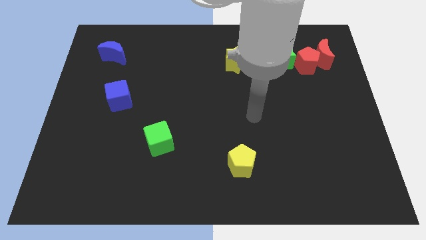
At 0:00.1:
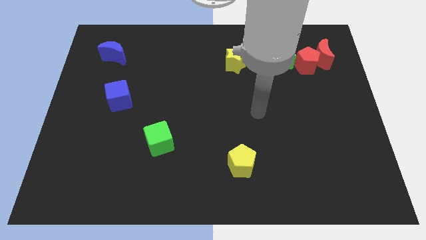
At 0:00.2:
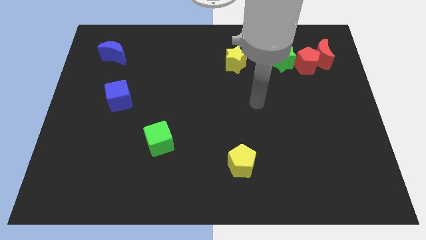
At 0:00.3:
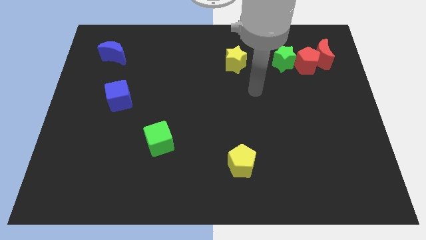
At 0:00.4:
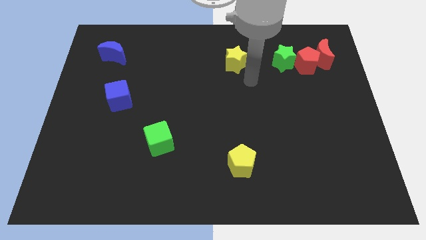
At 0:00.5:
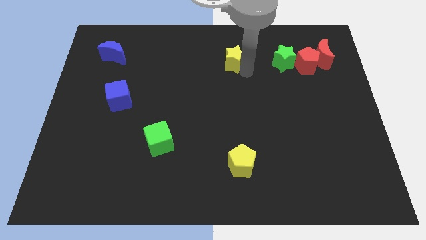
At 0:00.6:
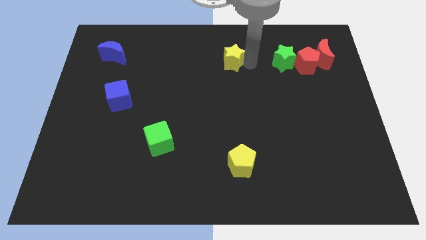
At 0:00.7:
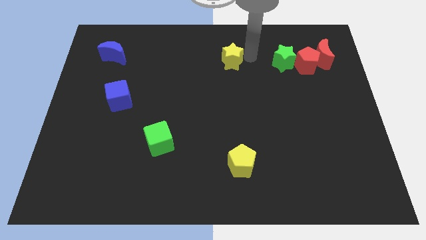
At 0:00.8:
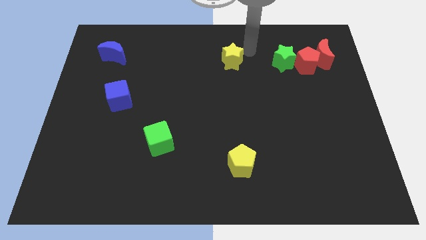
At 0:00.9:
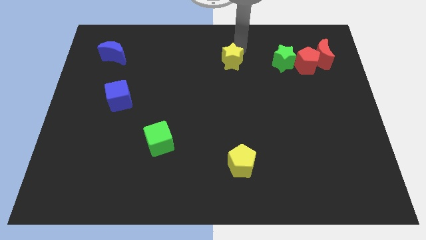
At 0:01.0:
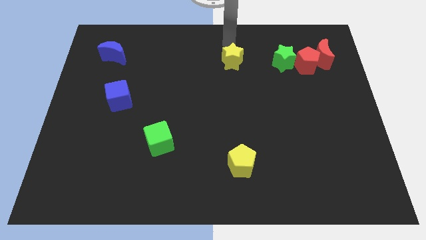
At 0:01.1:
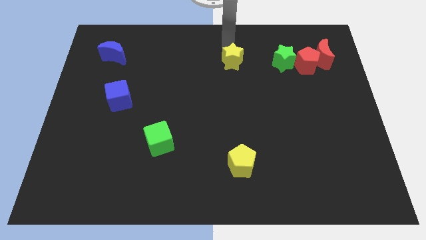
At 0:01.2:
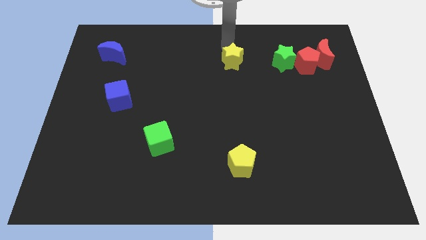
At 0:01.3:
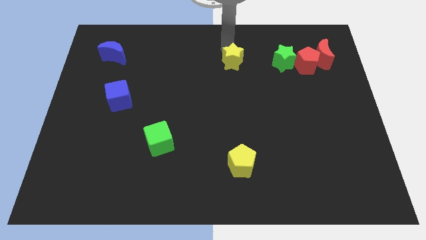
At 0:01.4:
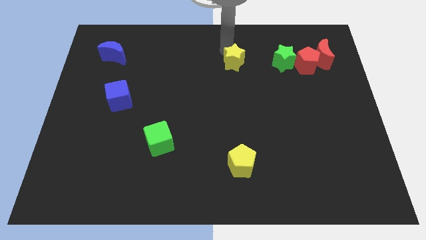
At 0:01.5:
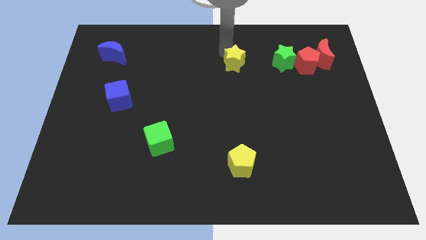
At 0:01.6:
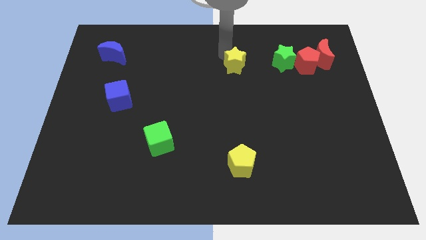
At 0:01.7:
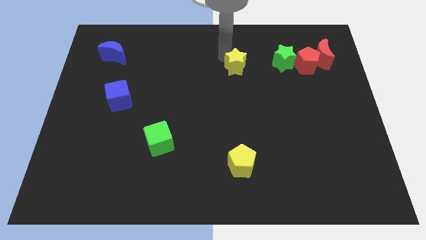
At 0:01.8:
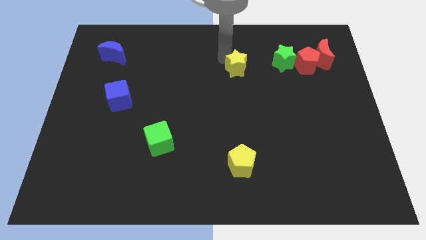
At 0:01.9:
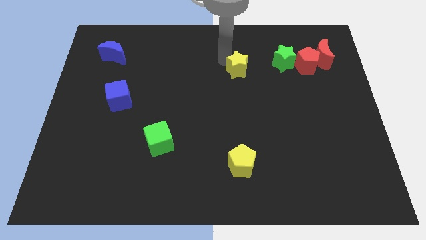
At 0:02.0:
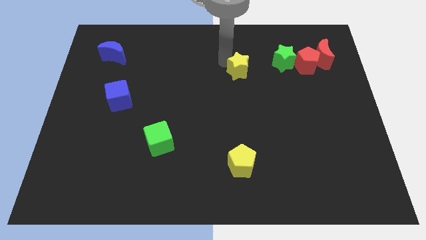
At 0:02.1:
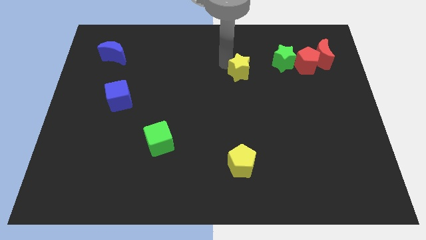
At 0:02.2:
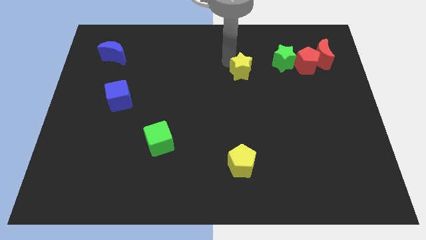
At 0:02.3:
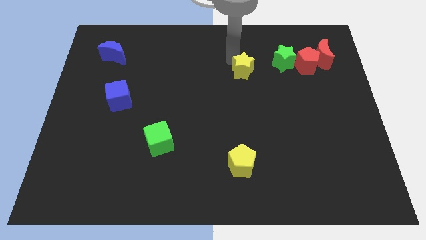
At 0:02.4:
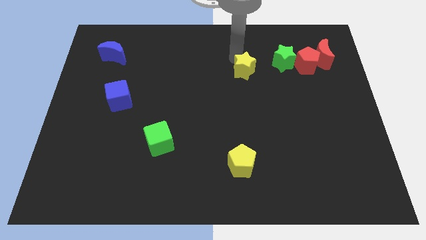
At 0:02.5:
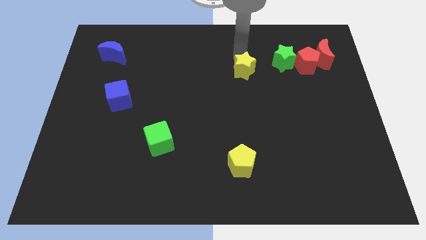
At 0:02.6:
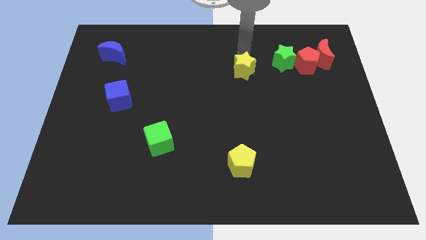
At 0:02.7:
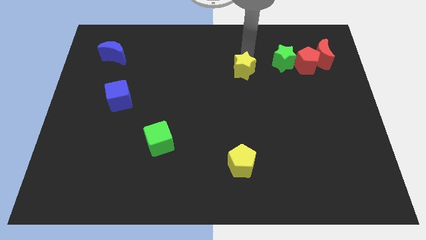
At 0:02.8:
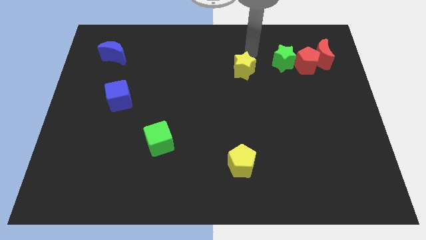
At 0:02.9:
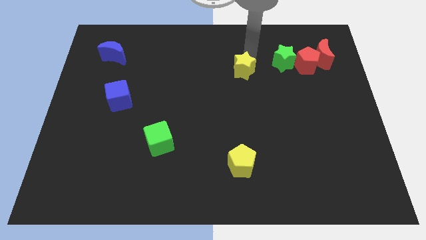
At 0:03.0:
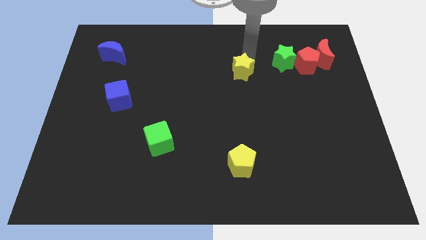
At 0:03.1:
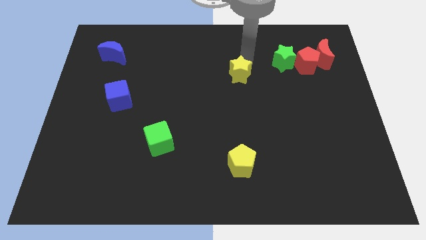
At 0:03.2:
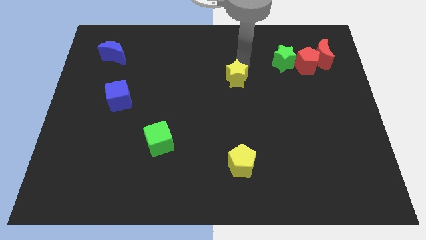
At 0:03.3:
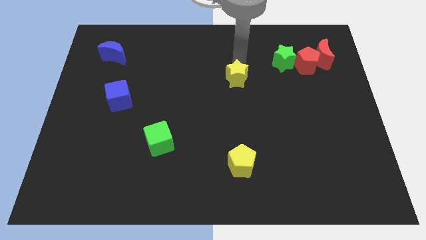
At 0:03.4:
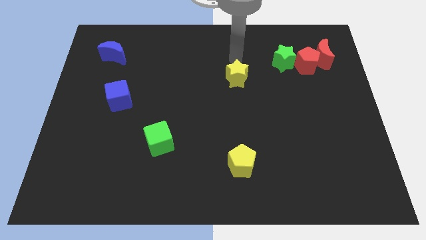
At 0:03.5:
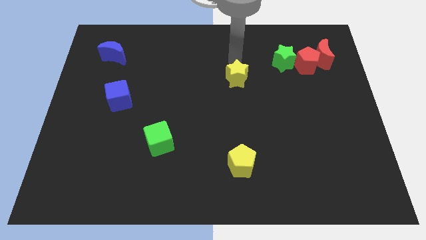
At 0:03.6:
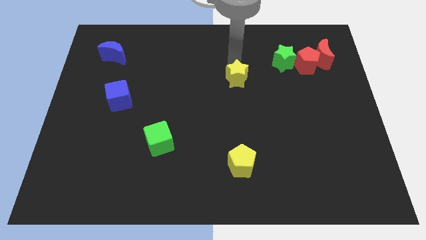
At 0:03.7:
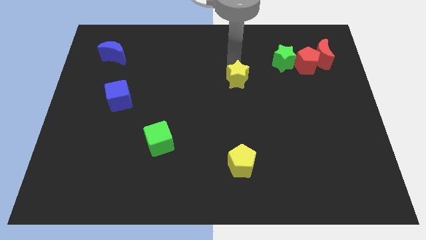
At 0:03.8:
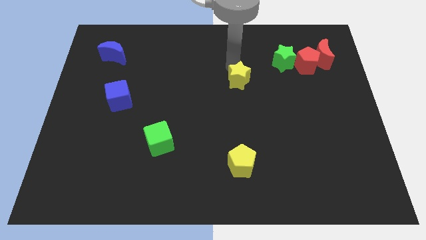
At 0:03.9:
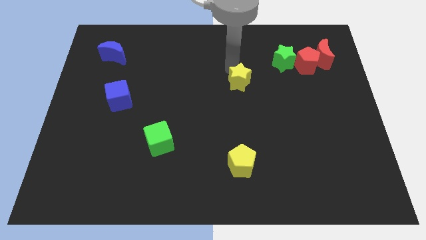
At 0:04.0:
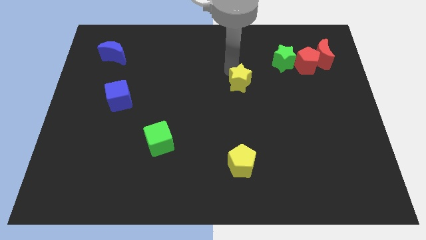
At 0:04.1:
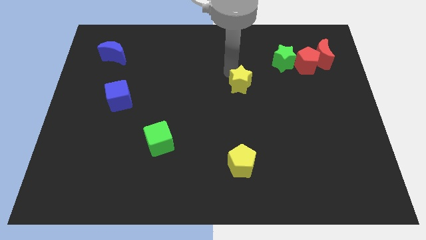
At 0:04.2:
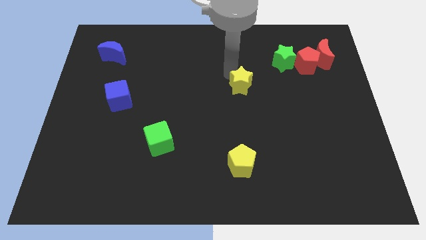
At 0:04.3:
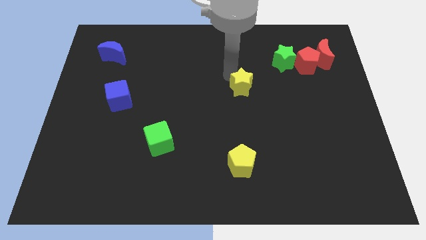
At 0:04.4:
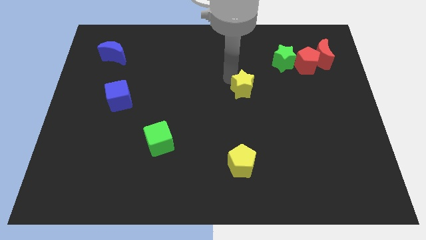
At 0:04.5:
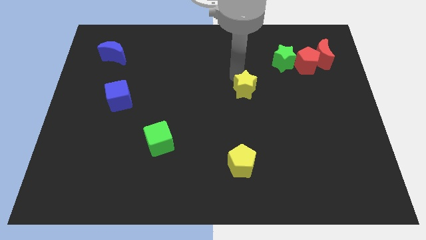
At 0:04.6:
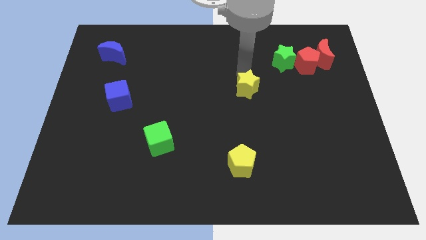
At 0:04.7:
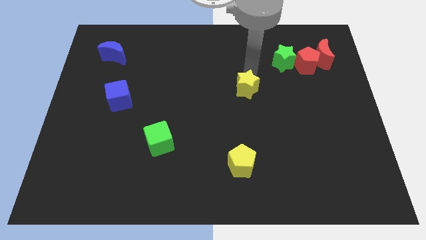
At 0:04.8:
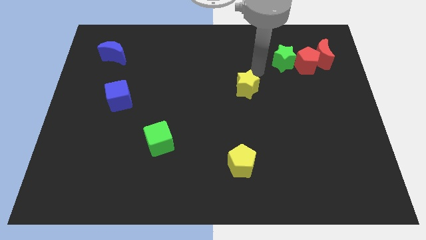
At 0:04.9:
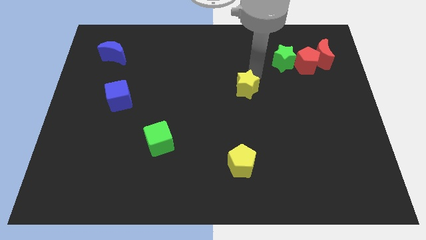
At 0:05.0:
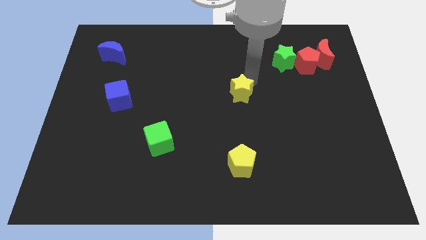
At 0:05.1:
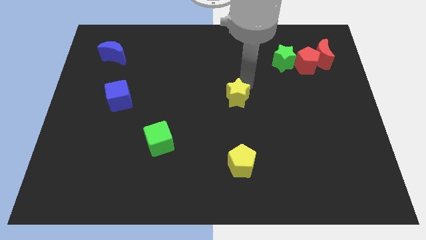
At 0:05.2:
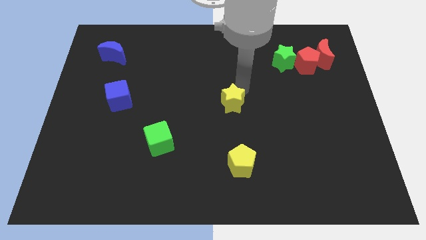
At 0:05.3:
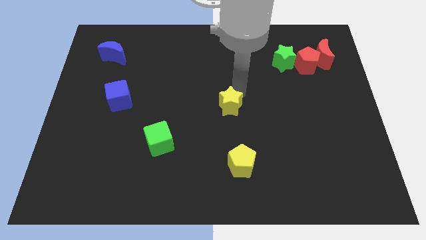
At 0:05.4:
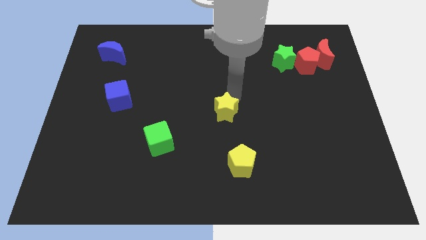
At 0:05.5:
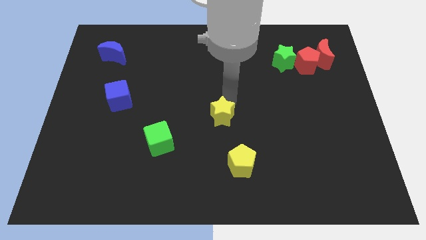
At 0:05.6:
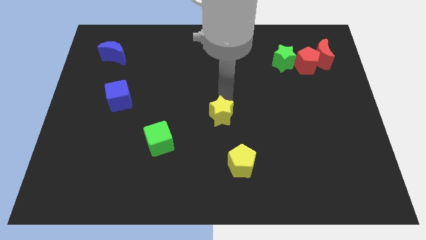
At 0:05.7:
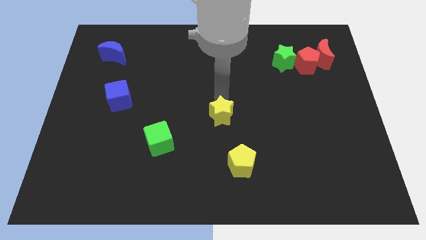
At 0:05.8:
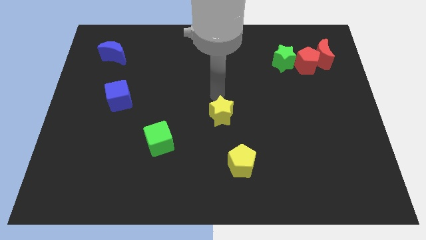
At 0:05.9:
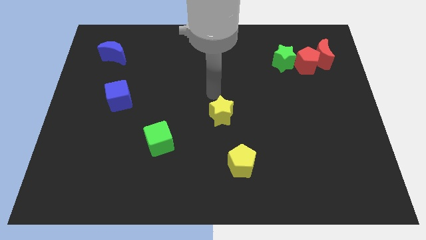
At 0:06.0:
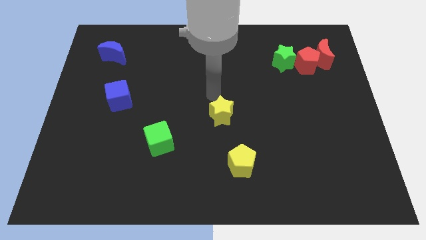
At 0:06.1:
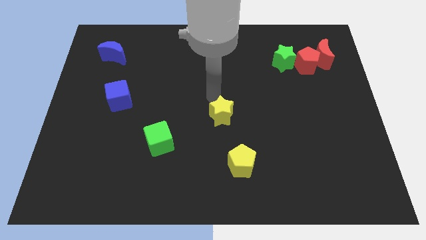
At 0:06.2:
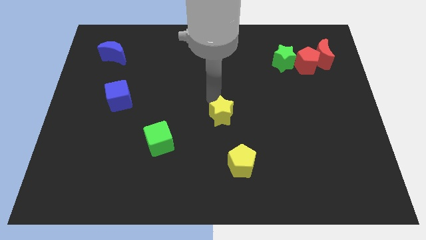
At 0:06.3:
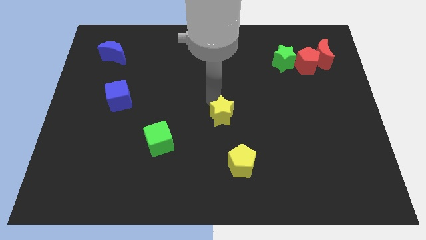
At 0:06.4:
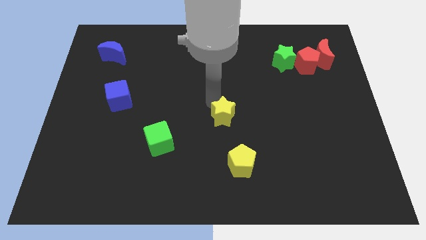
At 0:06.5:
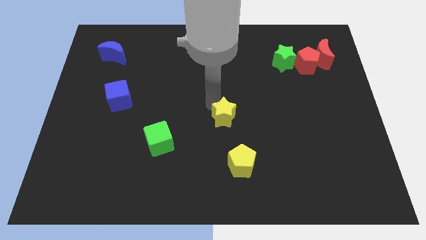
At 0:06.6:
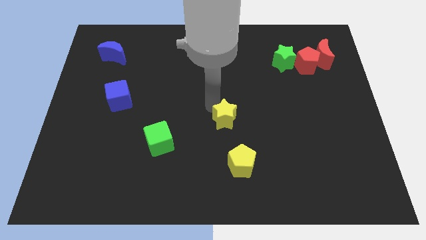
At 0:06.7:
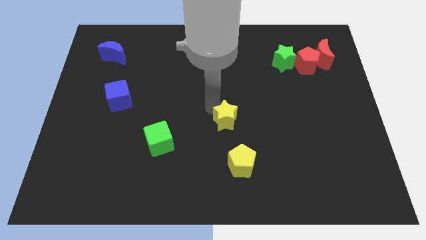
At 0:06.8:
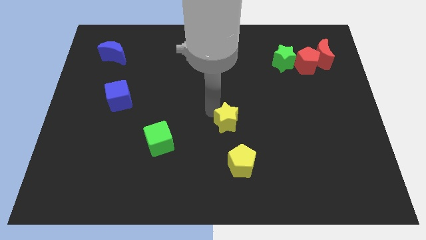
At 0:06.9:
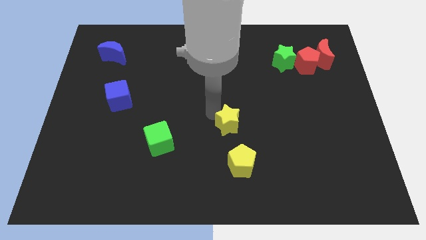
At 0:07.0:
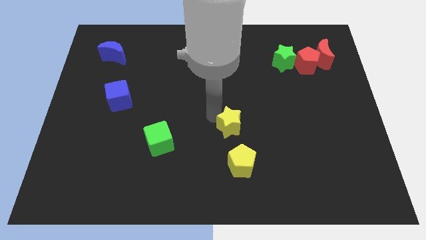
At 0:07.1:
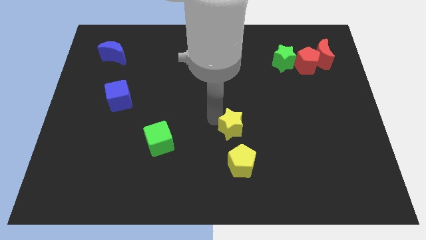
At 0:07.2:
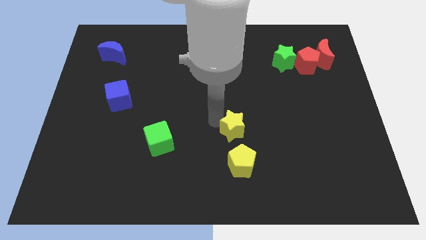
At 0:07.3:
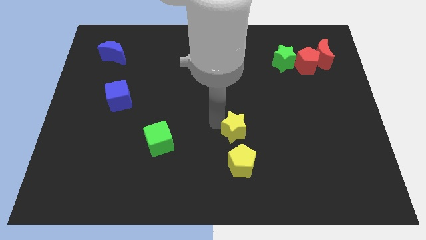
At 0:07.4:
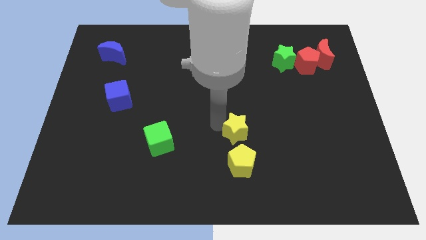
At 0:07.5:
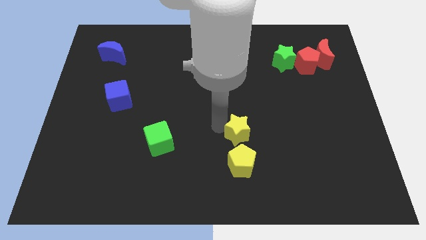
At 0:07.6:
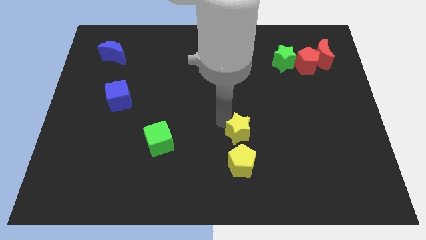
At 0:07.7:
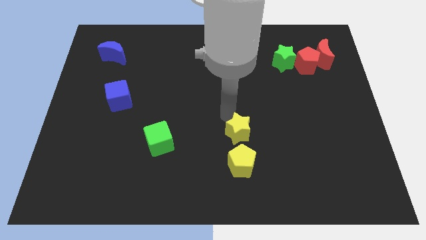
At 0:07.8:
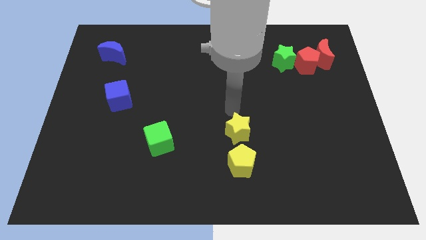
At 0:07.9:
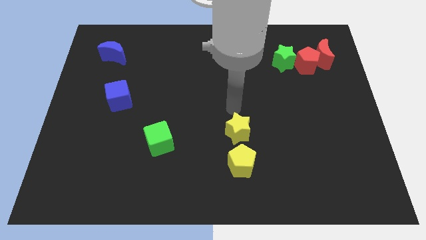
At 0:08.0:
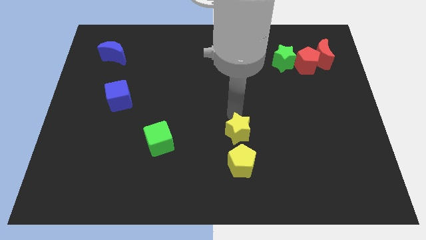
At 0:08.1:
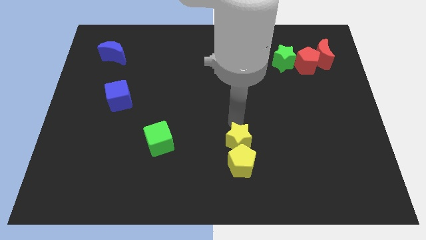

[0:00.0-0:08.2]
slide the yellow star next to the yellow pentagon
